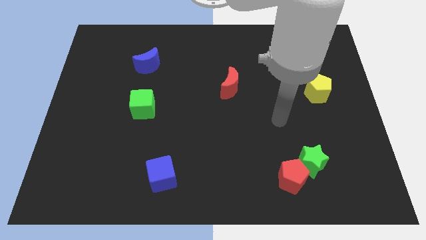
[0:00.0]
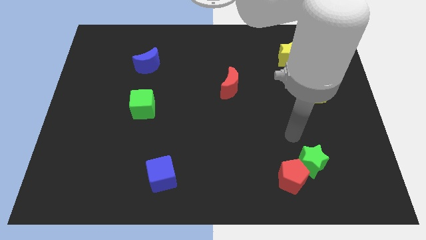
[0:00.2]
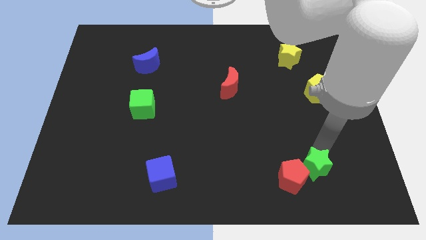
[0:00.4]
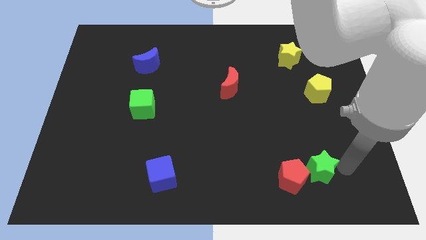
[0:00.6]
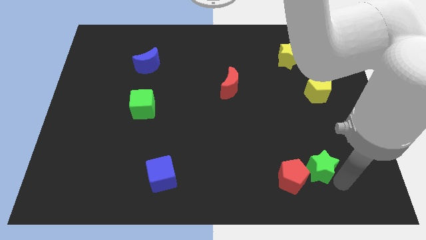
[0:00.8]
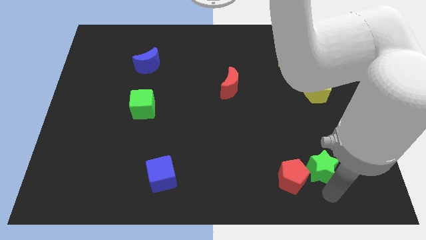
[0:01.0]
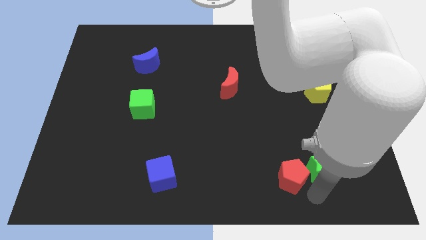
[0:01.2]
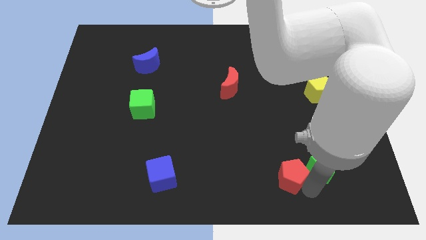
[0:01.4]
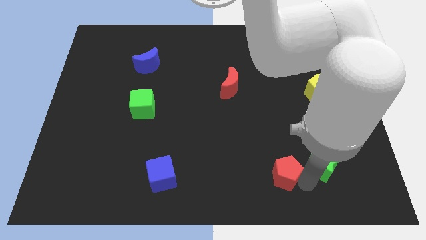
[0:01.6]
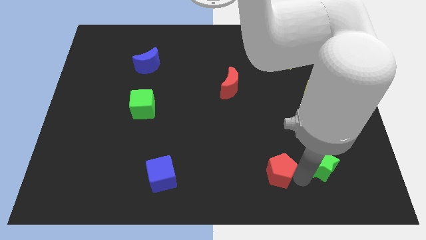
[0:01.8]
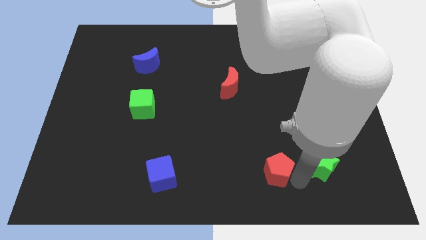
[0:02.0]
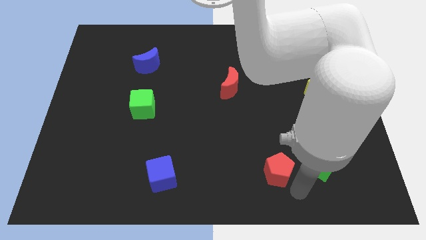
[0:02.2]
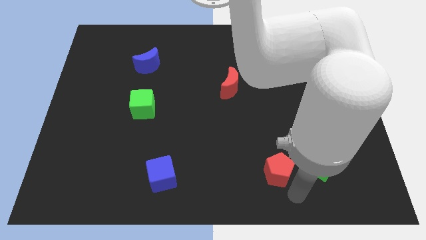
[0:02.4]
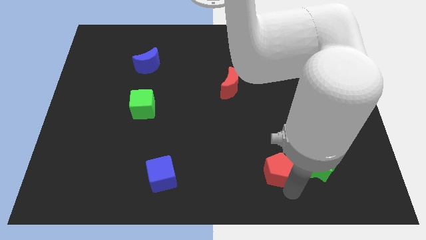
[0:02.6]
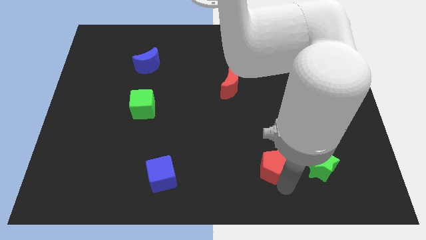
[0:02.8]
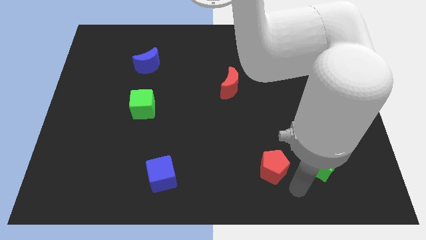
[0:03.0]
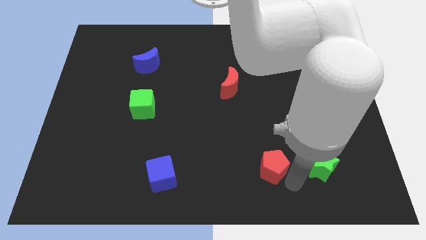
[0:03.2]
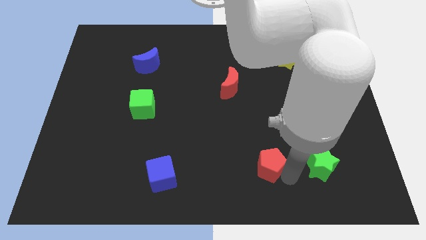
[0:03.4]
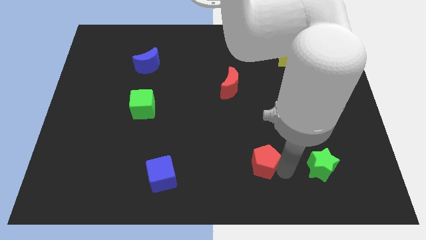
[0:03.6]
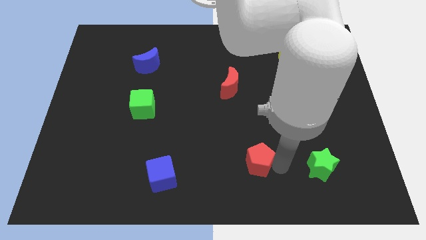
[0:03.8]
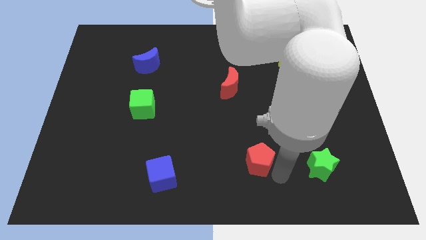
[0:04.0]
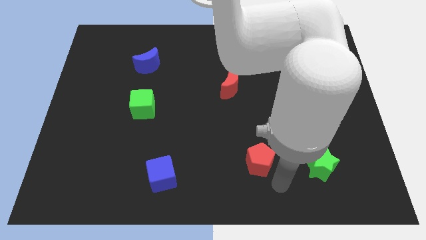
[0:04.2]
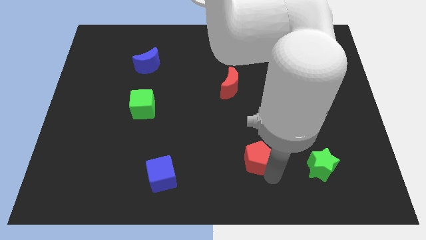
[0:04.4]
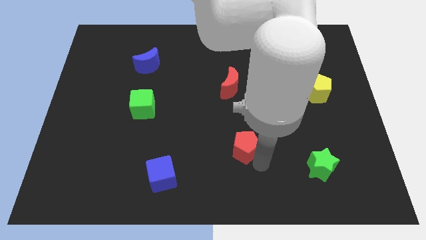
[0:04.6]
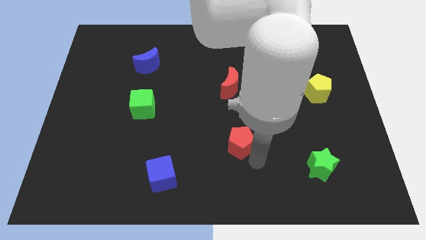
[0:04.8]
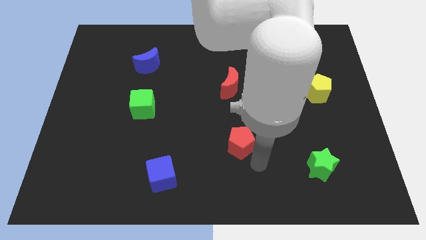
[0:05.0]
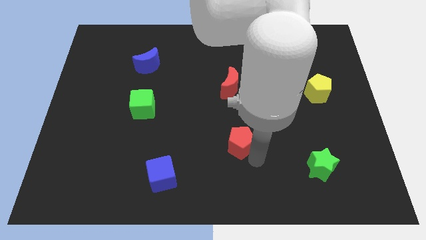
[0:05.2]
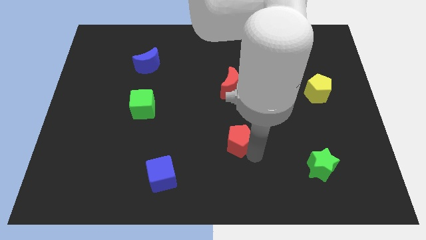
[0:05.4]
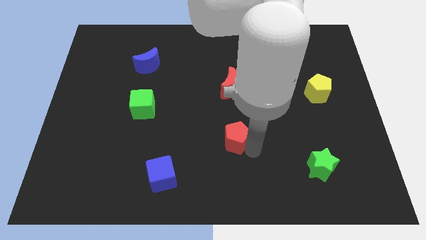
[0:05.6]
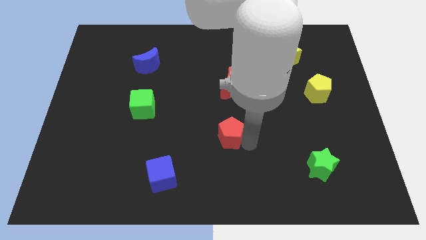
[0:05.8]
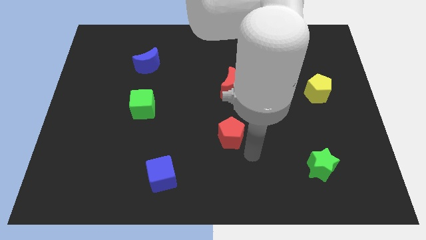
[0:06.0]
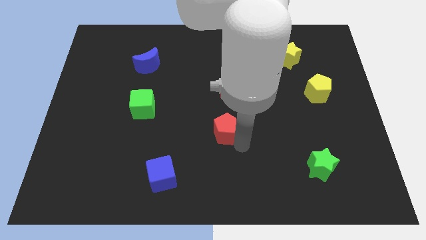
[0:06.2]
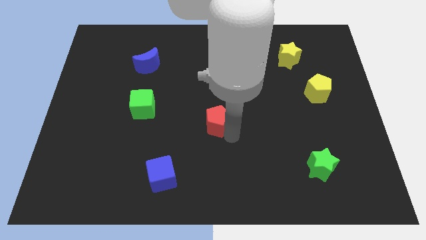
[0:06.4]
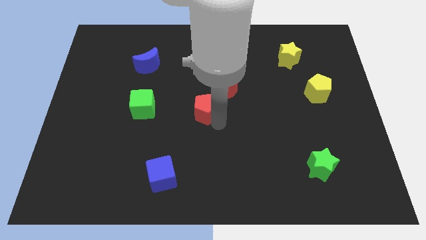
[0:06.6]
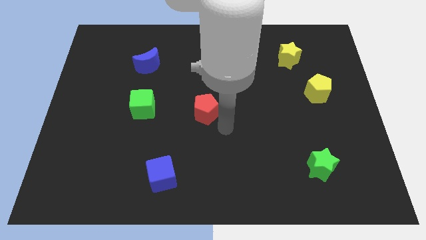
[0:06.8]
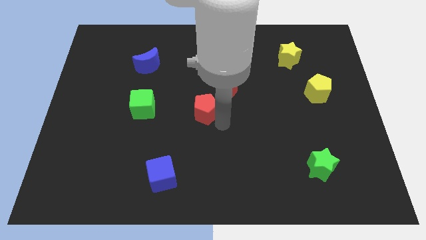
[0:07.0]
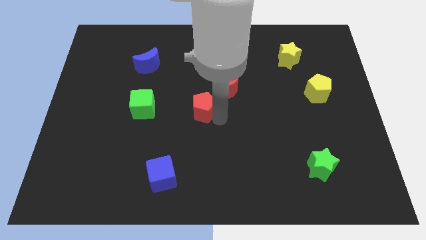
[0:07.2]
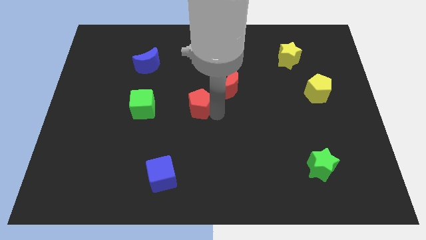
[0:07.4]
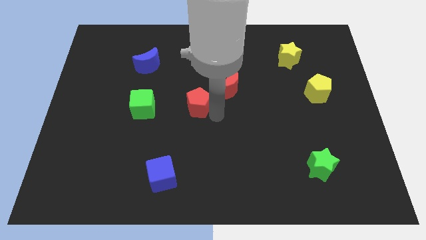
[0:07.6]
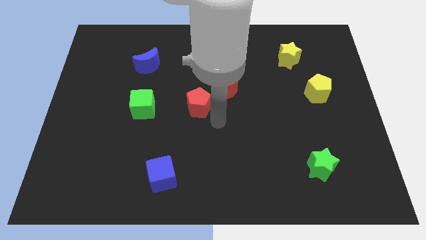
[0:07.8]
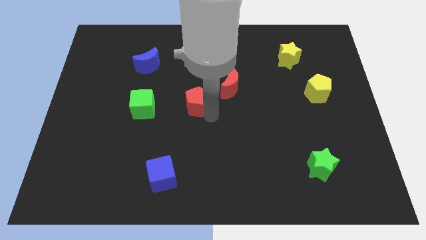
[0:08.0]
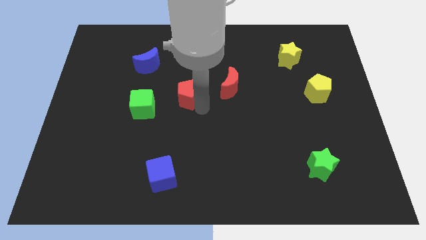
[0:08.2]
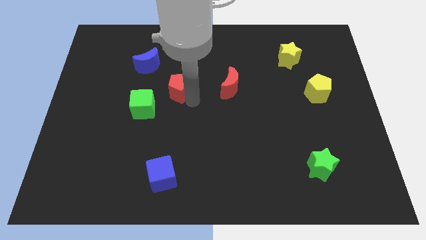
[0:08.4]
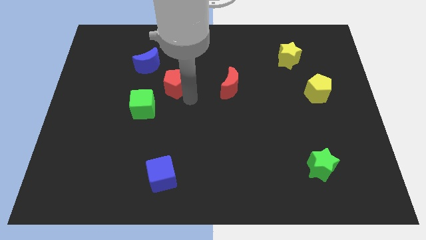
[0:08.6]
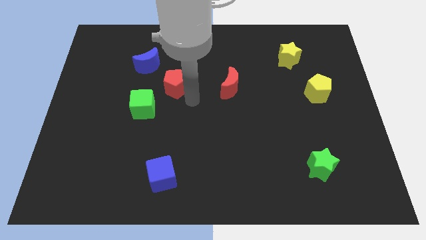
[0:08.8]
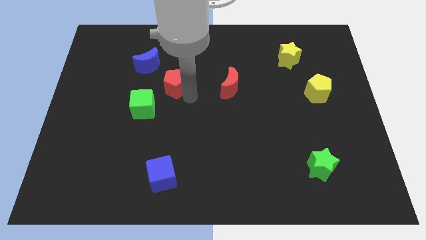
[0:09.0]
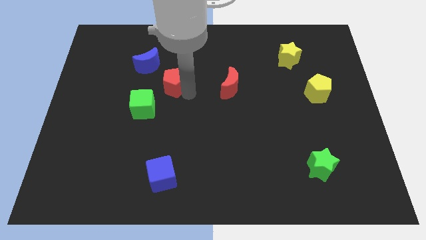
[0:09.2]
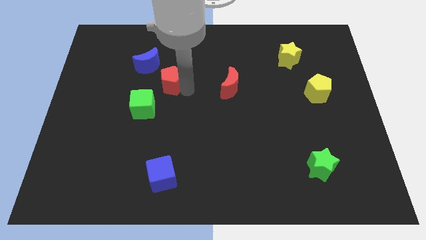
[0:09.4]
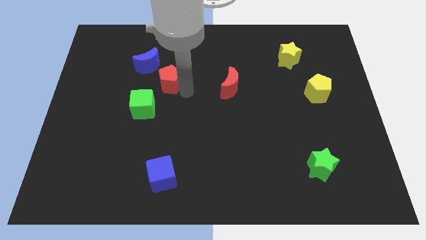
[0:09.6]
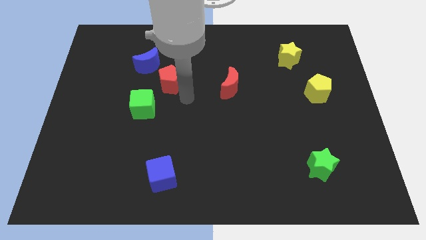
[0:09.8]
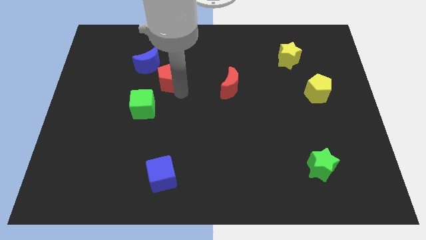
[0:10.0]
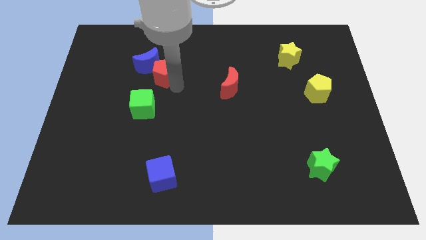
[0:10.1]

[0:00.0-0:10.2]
put the red pentagon next to the blue moon

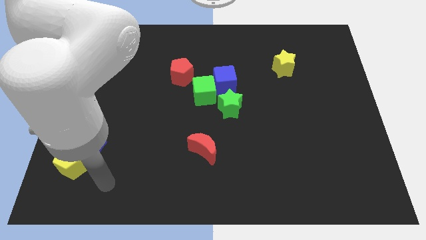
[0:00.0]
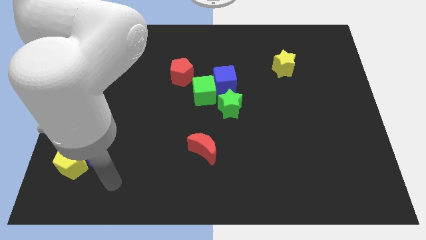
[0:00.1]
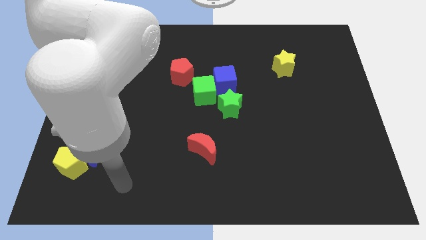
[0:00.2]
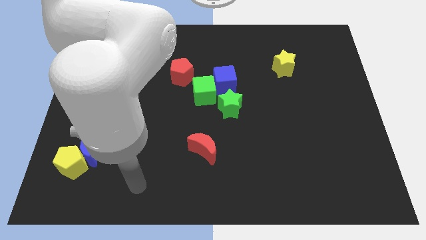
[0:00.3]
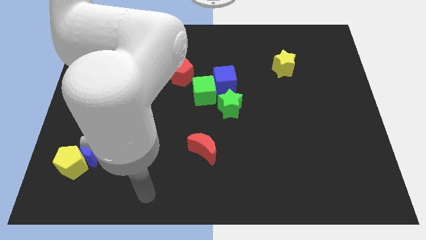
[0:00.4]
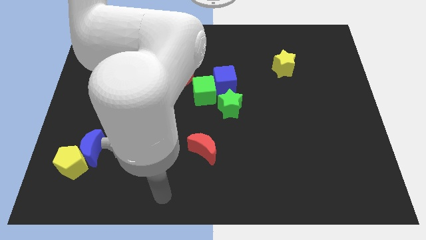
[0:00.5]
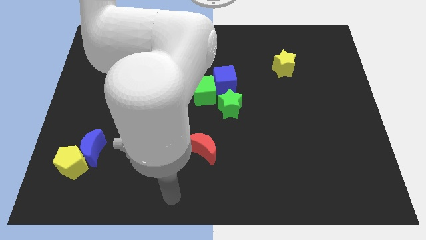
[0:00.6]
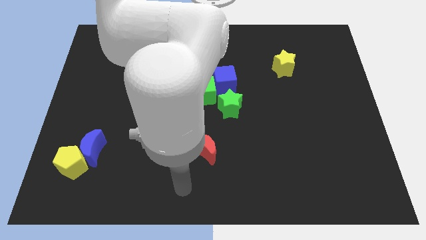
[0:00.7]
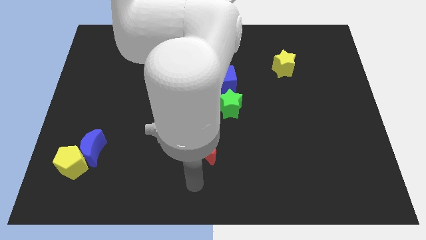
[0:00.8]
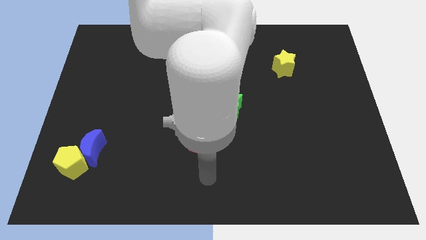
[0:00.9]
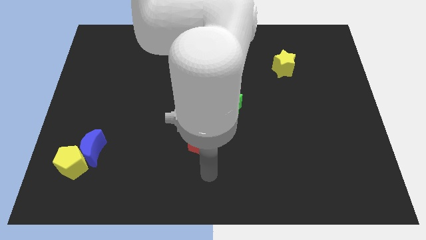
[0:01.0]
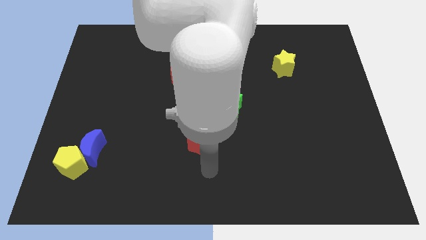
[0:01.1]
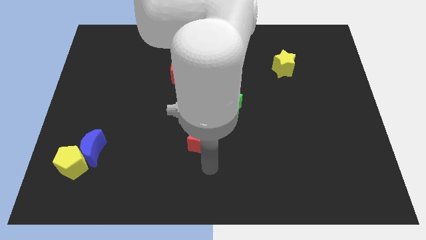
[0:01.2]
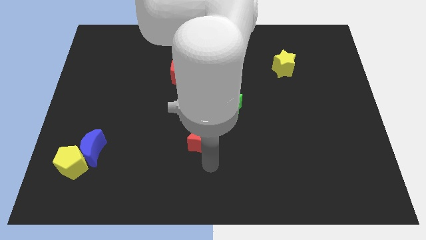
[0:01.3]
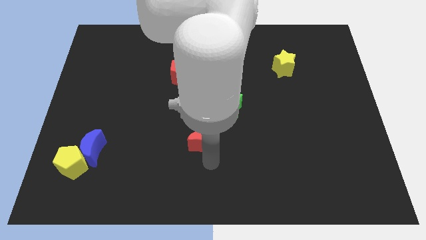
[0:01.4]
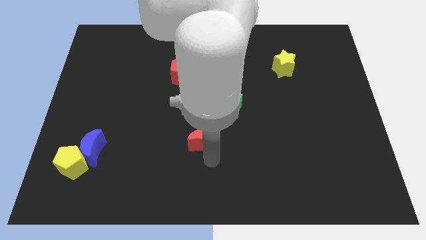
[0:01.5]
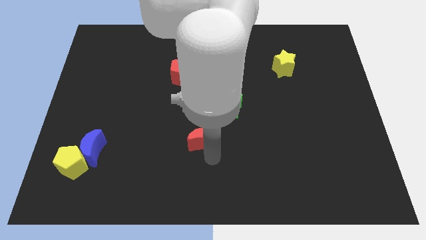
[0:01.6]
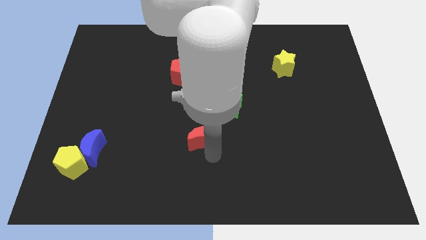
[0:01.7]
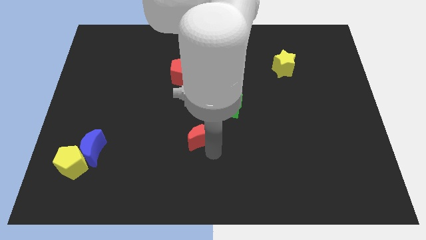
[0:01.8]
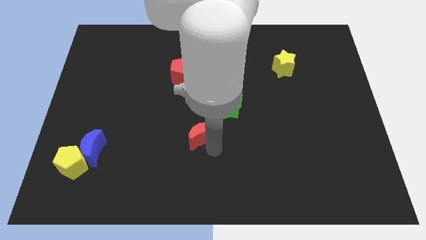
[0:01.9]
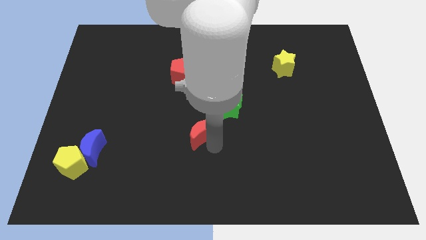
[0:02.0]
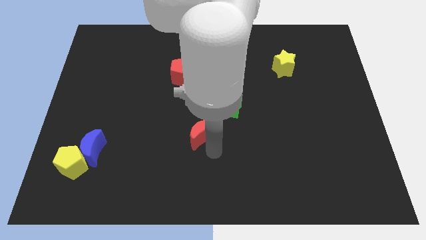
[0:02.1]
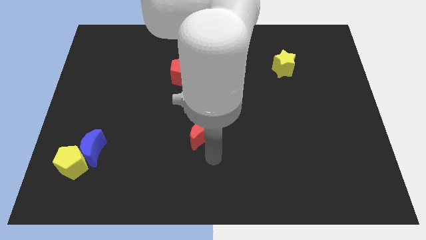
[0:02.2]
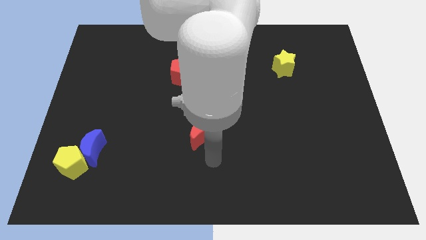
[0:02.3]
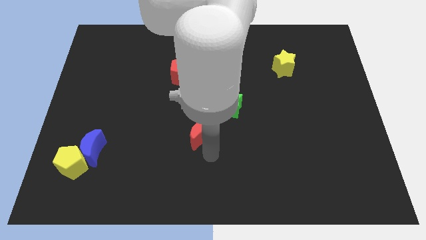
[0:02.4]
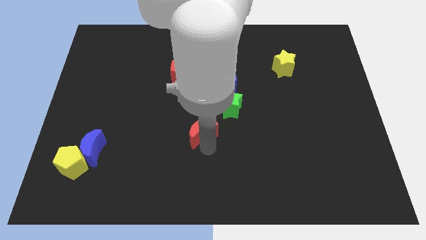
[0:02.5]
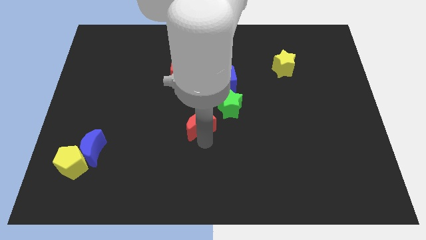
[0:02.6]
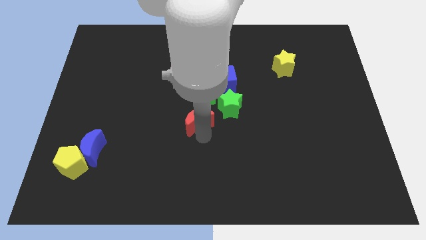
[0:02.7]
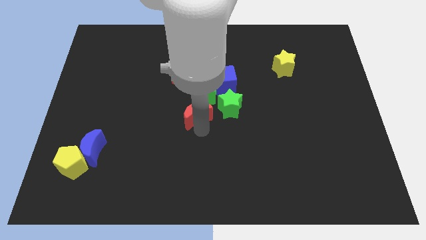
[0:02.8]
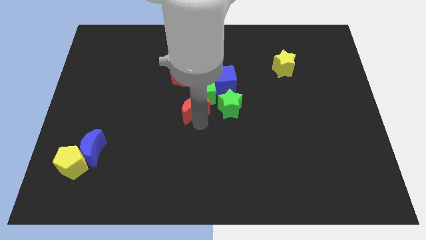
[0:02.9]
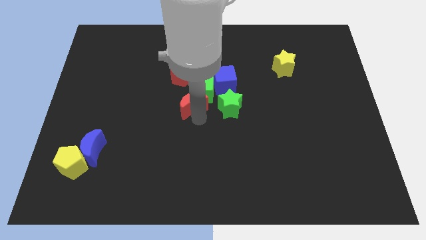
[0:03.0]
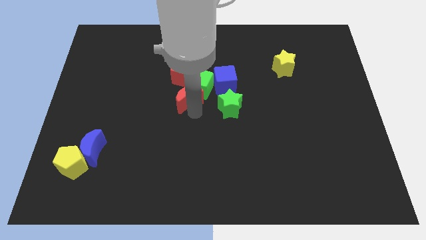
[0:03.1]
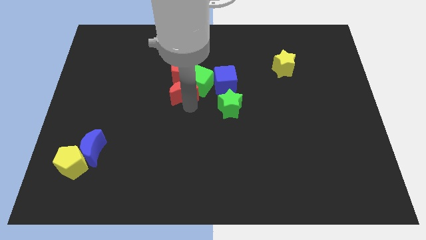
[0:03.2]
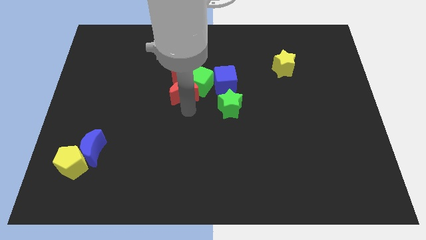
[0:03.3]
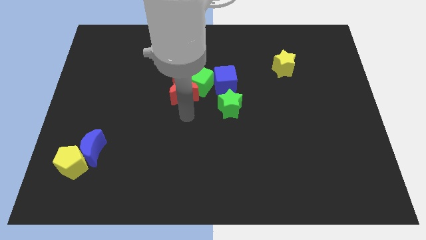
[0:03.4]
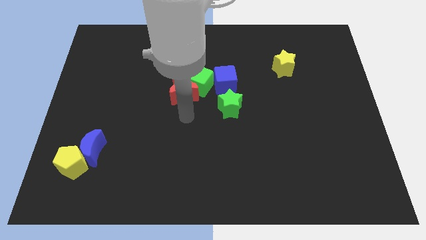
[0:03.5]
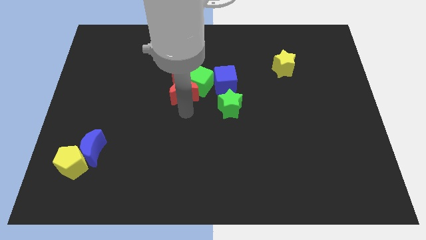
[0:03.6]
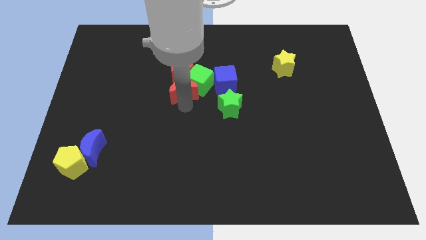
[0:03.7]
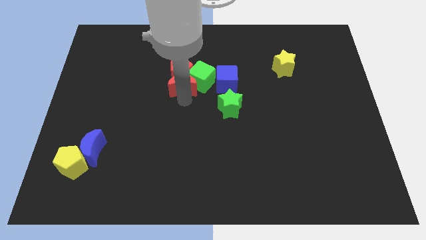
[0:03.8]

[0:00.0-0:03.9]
slide the red moon close to the red pentagon
